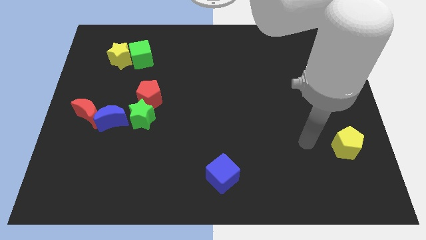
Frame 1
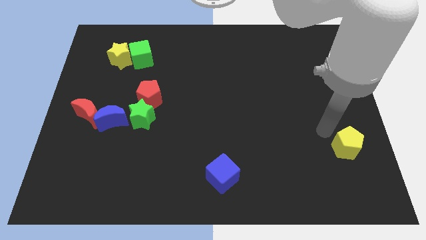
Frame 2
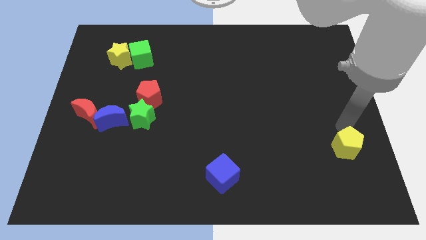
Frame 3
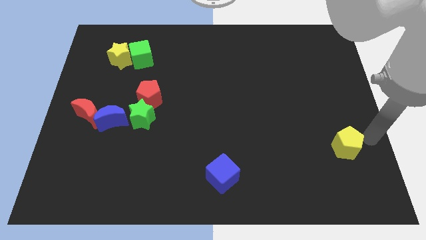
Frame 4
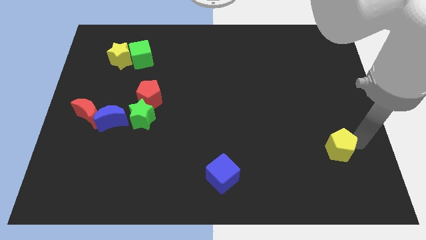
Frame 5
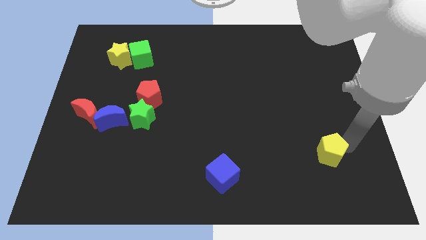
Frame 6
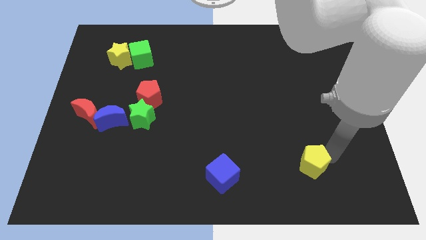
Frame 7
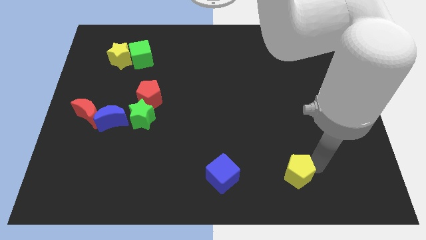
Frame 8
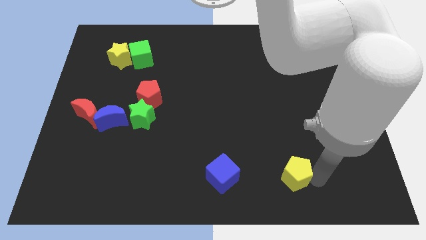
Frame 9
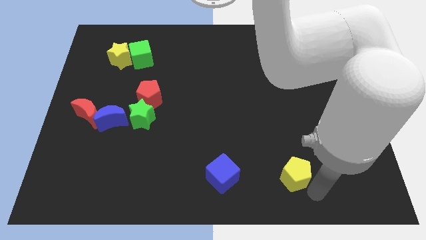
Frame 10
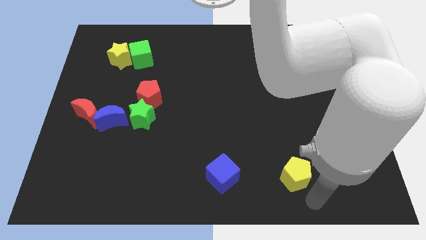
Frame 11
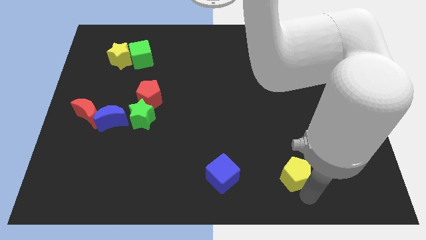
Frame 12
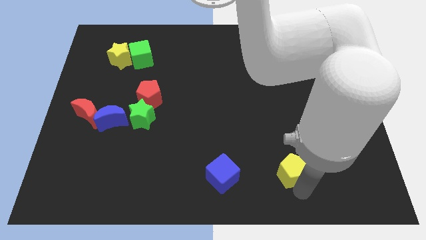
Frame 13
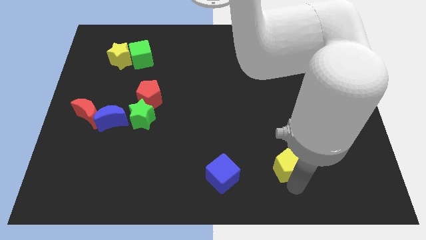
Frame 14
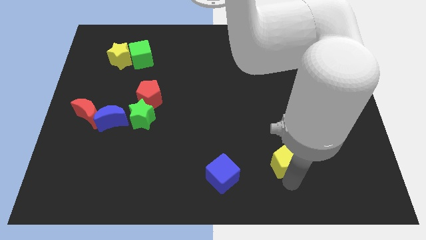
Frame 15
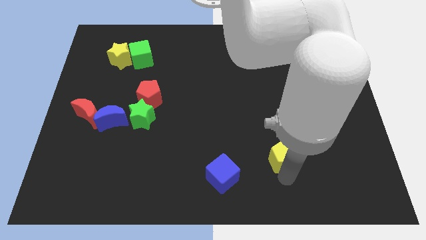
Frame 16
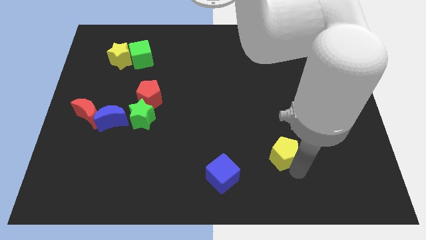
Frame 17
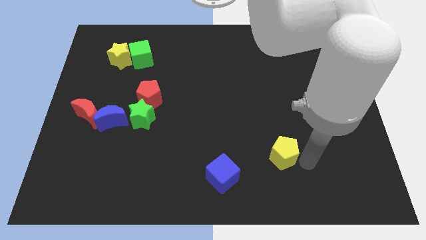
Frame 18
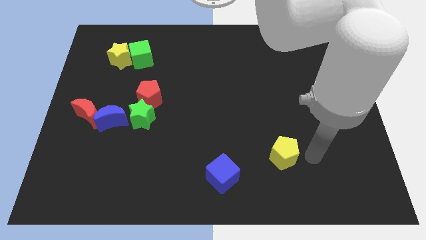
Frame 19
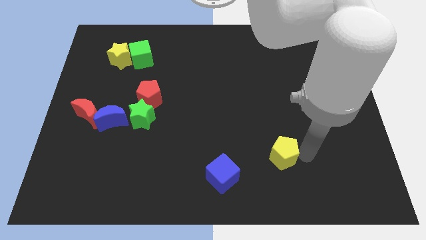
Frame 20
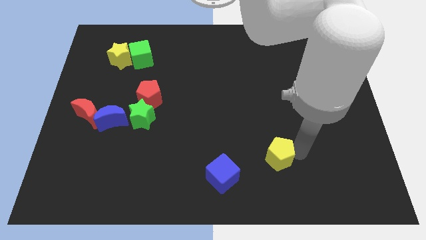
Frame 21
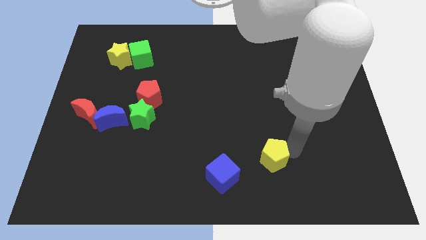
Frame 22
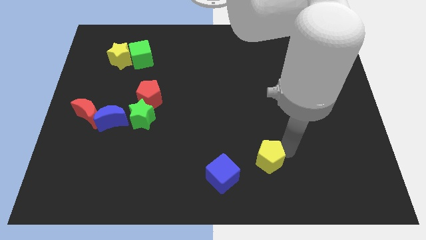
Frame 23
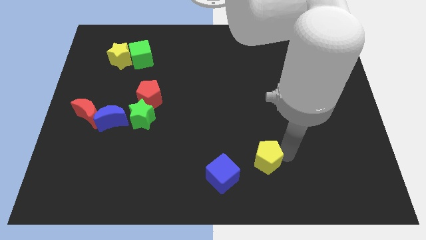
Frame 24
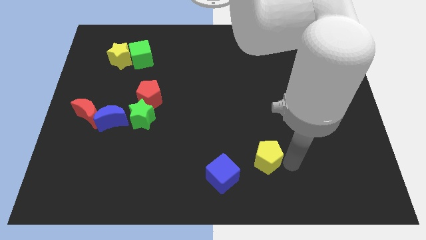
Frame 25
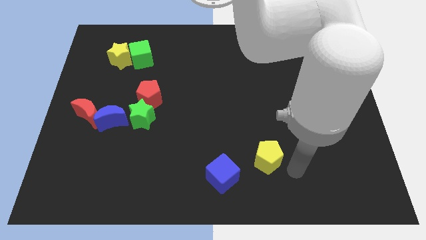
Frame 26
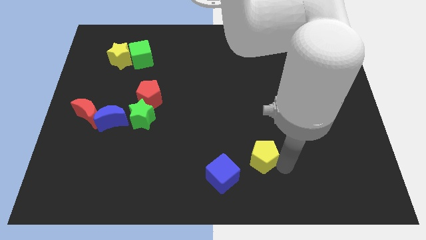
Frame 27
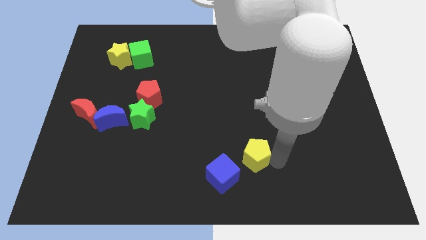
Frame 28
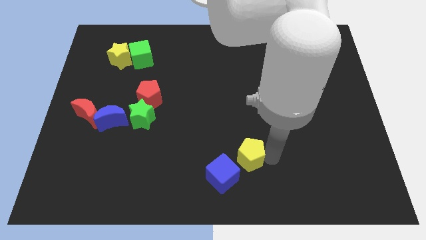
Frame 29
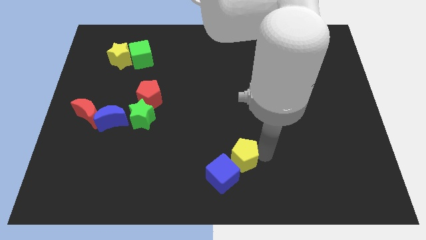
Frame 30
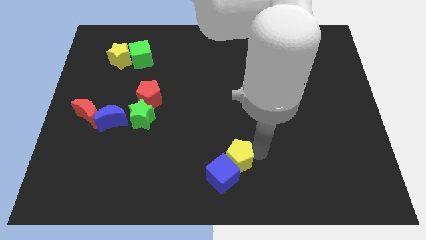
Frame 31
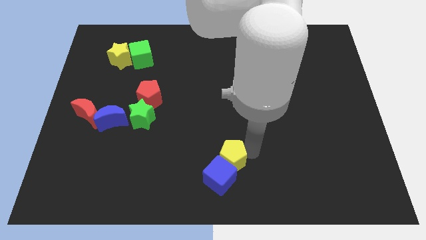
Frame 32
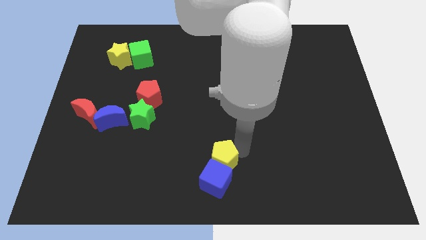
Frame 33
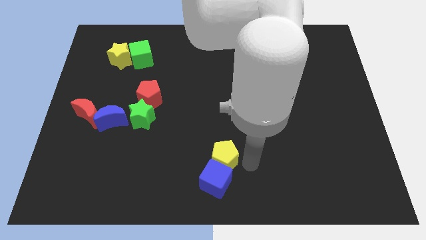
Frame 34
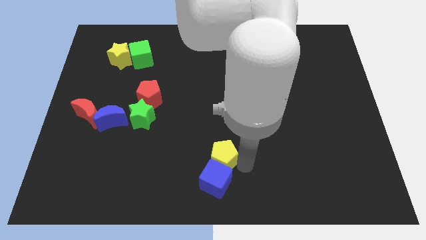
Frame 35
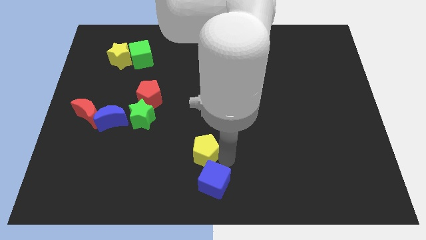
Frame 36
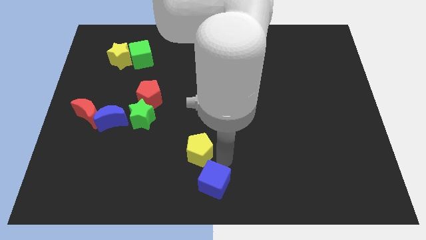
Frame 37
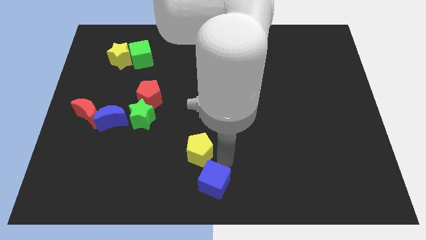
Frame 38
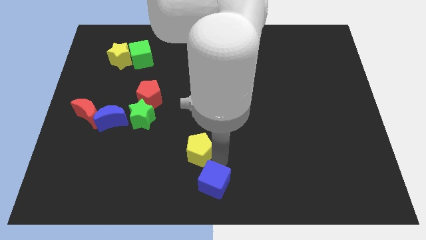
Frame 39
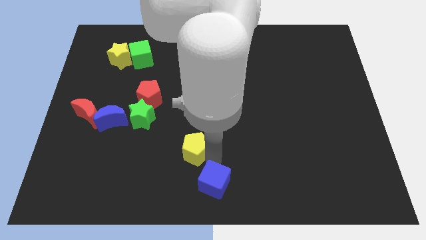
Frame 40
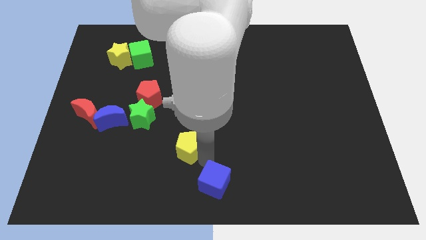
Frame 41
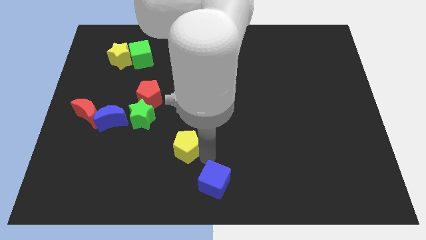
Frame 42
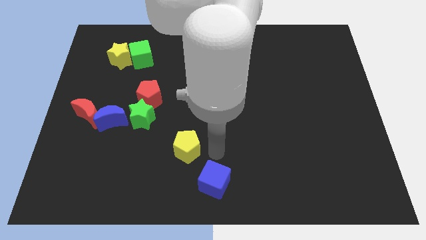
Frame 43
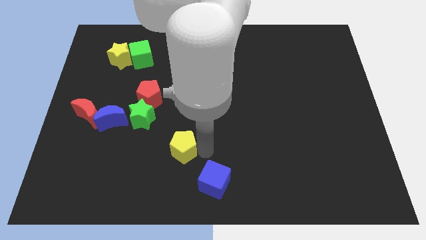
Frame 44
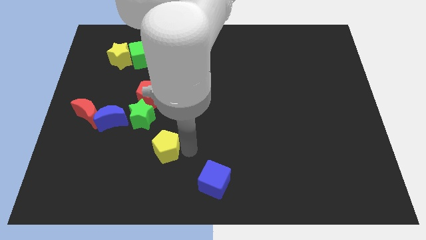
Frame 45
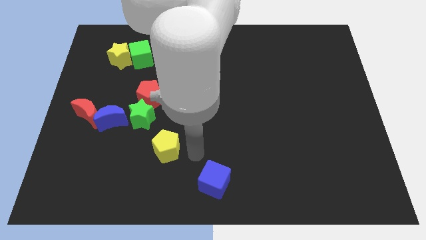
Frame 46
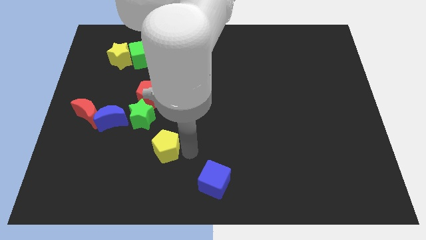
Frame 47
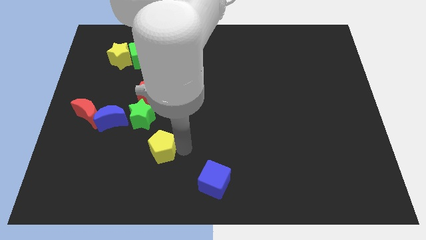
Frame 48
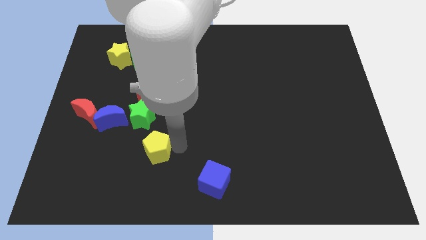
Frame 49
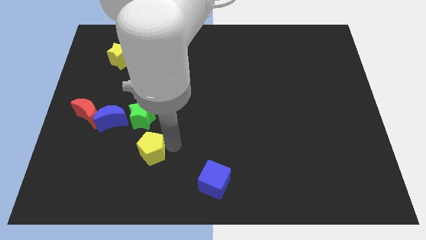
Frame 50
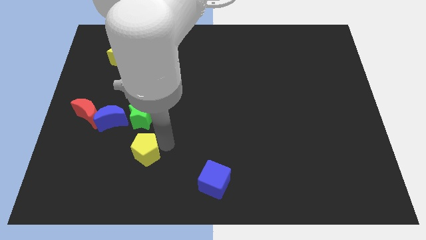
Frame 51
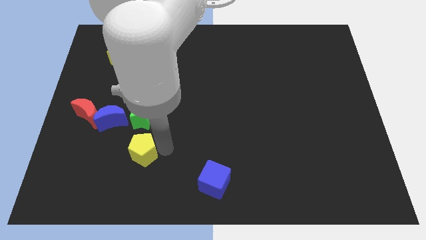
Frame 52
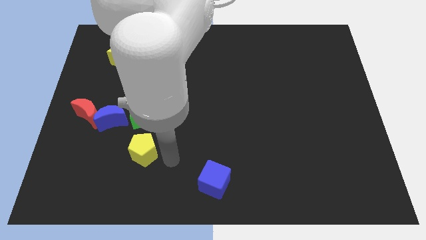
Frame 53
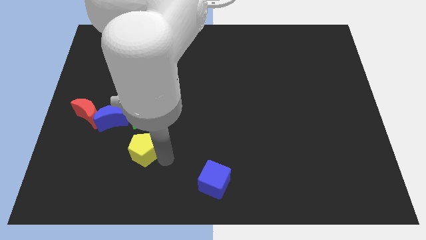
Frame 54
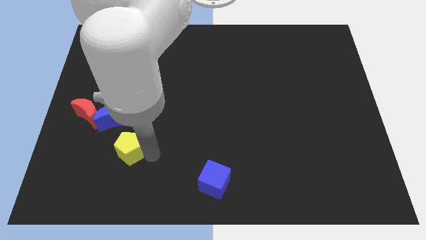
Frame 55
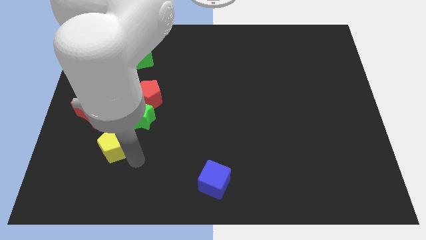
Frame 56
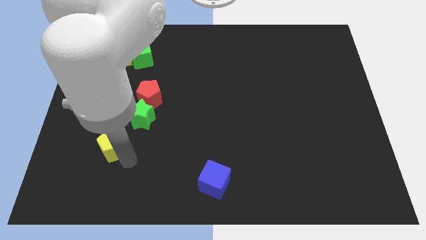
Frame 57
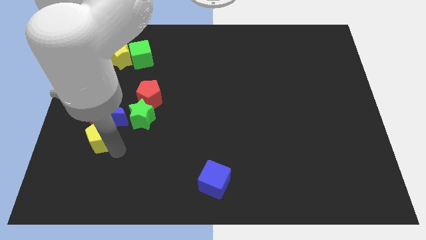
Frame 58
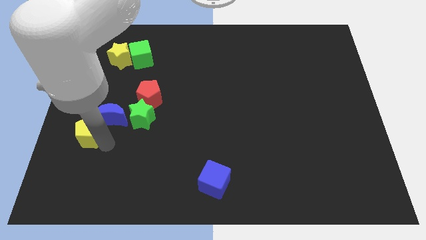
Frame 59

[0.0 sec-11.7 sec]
put the yellow pentagon towards the red moon

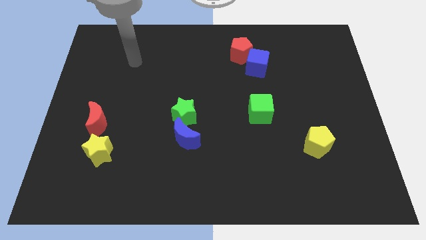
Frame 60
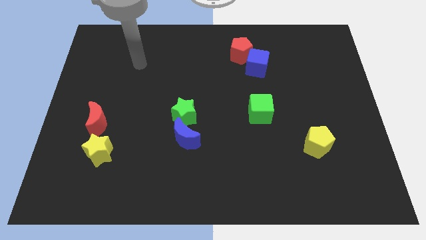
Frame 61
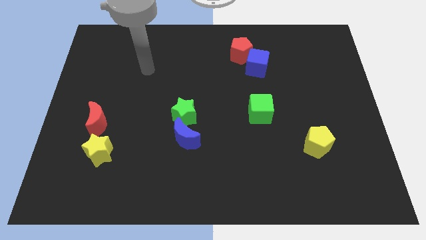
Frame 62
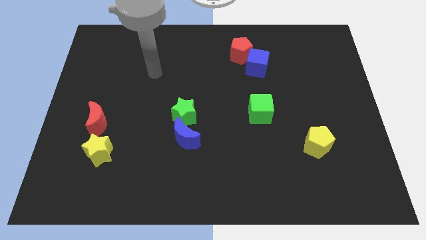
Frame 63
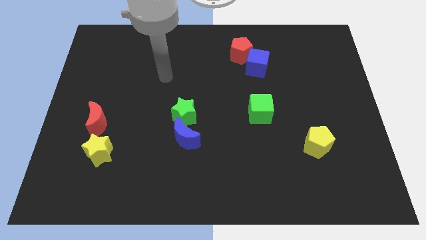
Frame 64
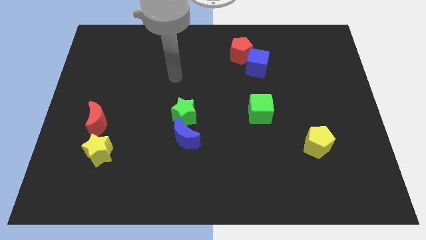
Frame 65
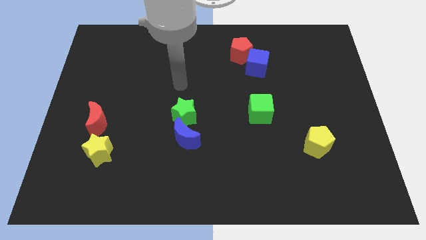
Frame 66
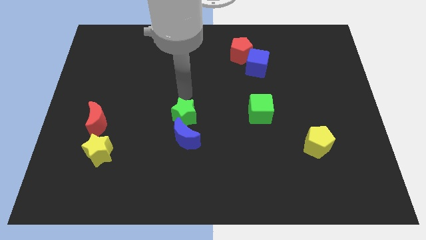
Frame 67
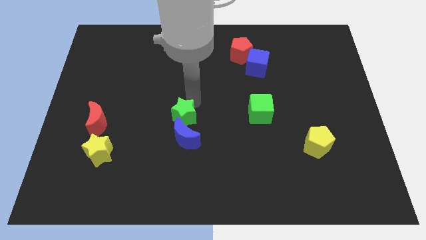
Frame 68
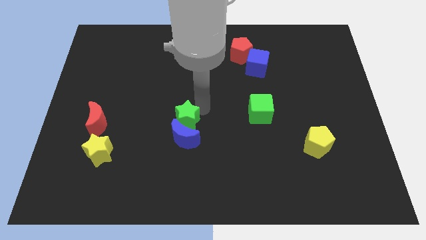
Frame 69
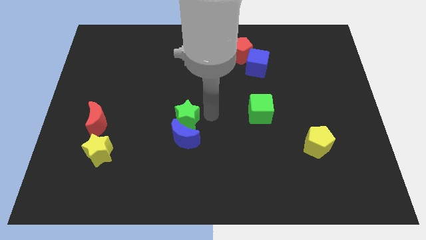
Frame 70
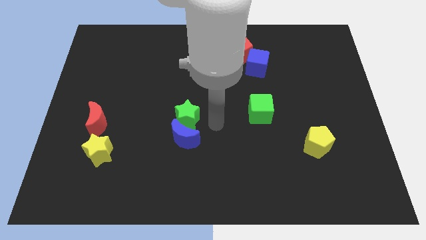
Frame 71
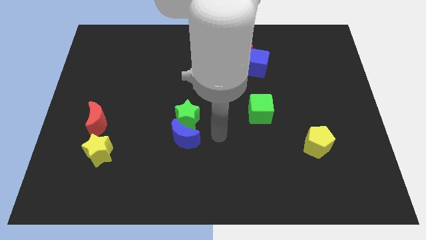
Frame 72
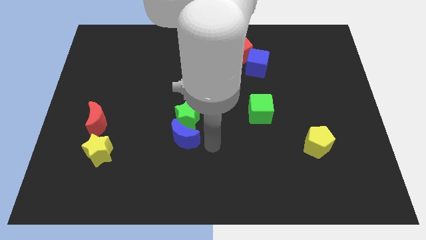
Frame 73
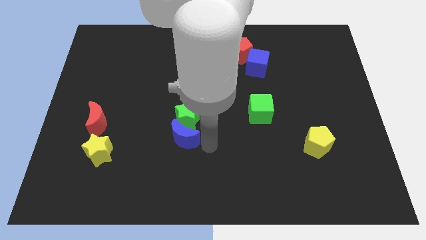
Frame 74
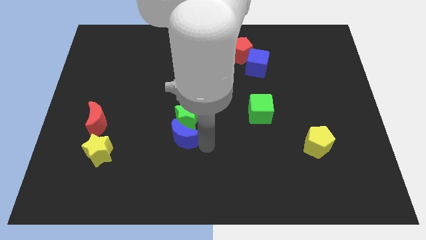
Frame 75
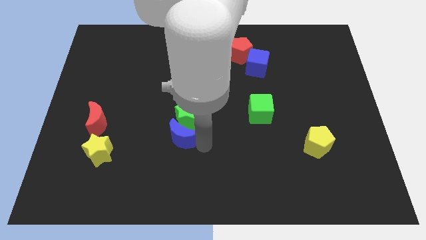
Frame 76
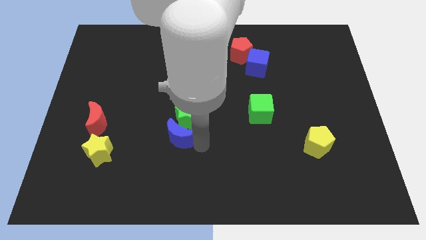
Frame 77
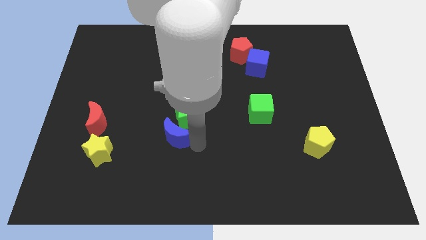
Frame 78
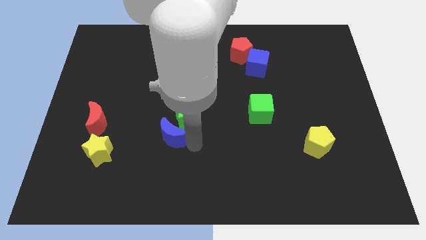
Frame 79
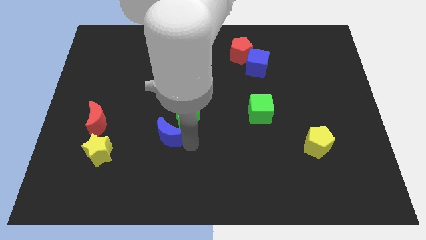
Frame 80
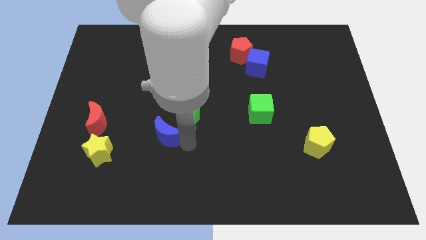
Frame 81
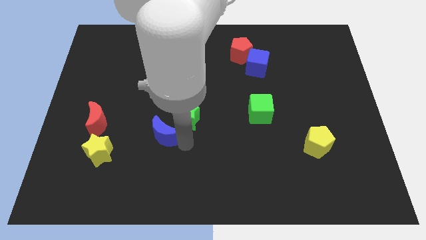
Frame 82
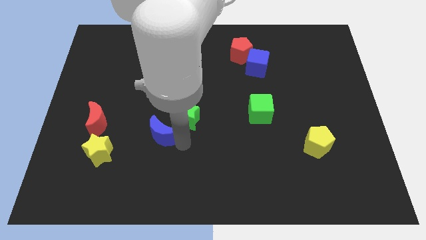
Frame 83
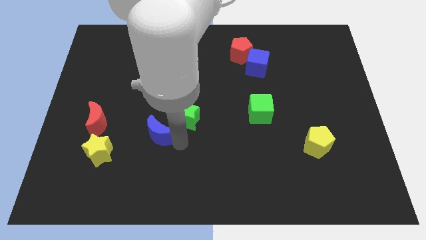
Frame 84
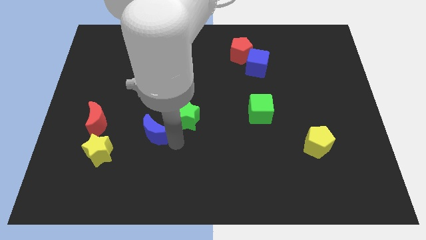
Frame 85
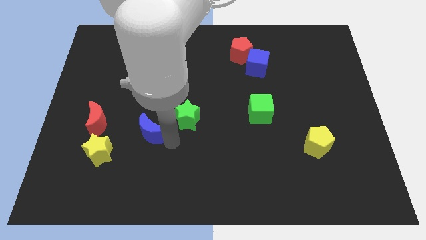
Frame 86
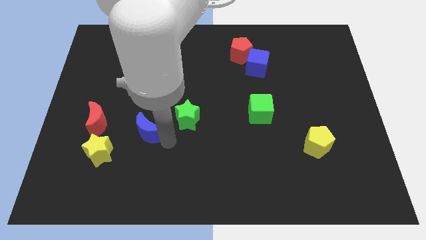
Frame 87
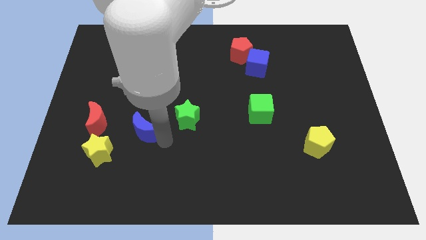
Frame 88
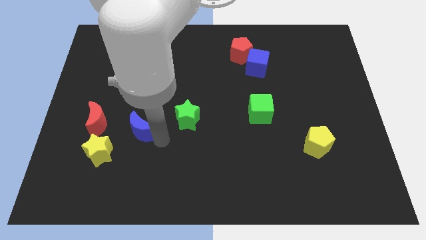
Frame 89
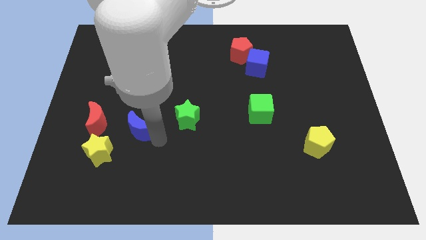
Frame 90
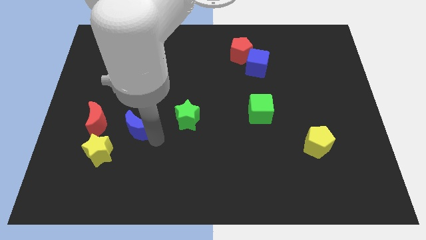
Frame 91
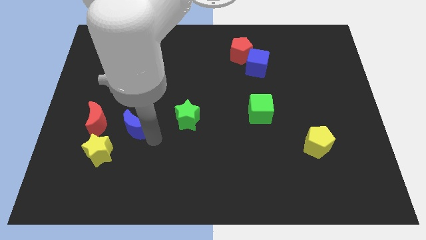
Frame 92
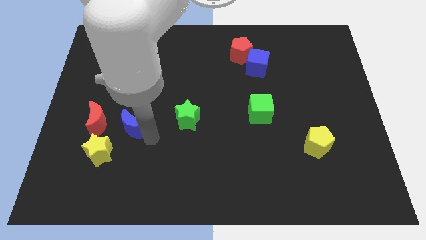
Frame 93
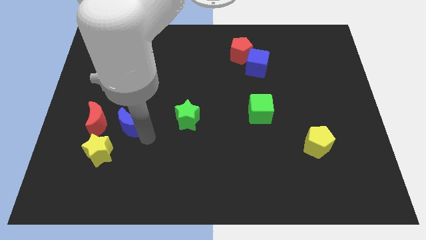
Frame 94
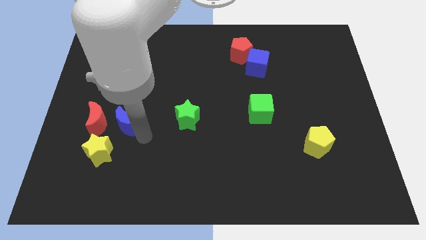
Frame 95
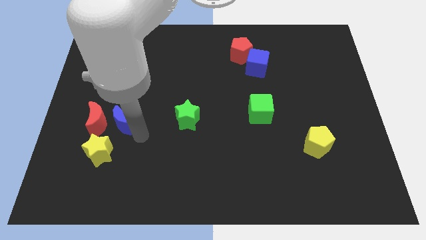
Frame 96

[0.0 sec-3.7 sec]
move the blue moon next to the red moon
